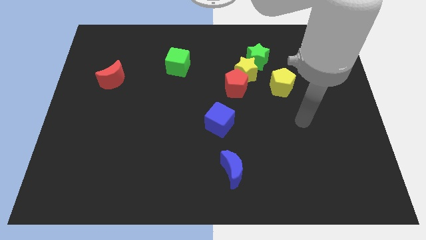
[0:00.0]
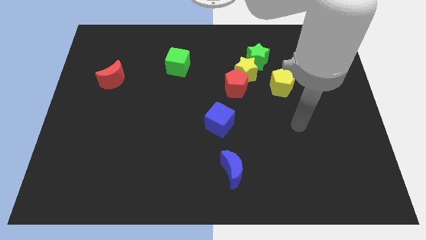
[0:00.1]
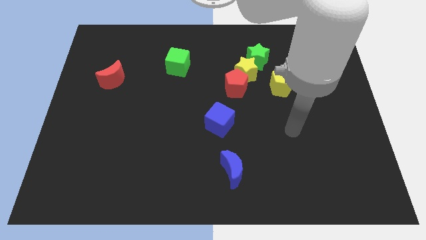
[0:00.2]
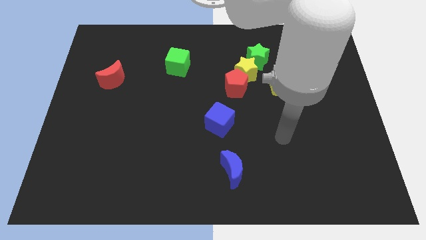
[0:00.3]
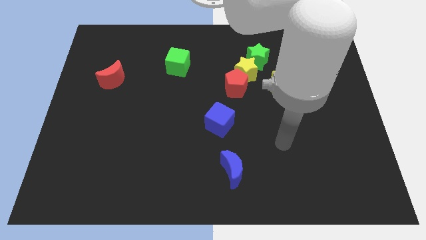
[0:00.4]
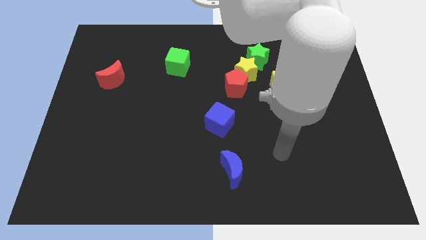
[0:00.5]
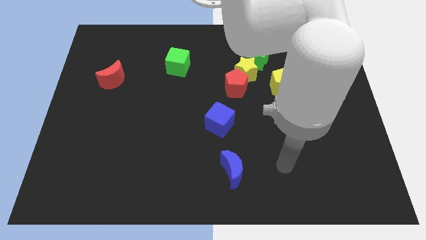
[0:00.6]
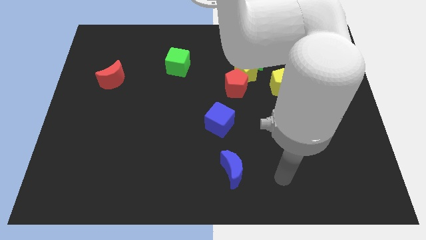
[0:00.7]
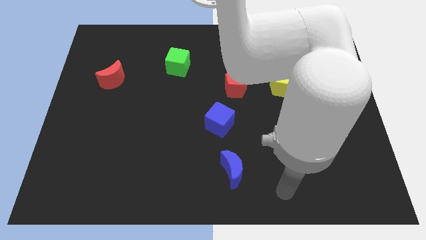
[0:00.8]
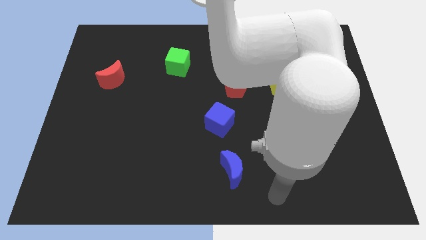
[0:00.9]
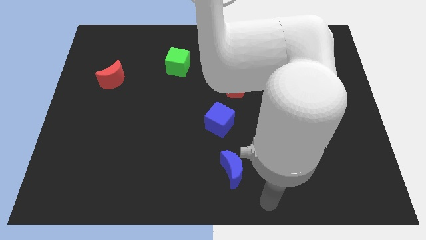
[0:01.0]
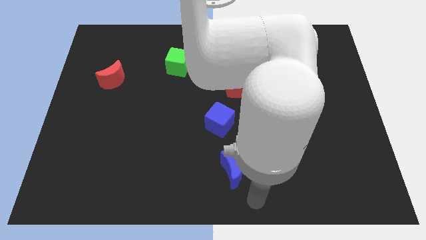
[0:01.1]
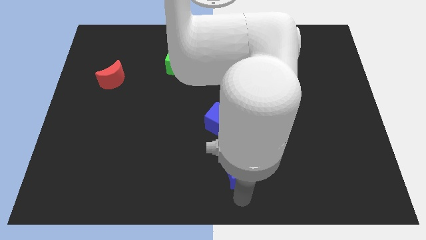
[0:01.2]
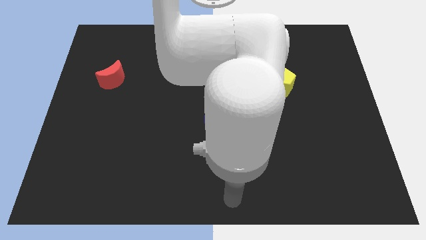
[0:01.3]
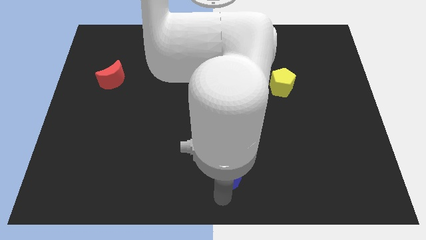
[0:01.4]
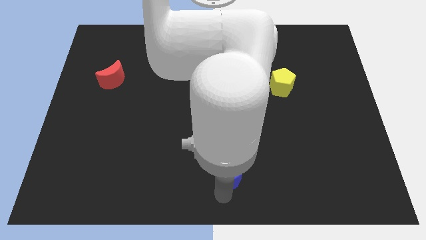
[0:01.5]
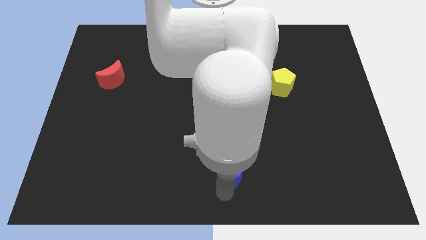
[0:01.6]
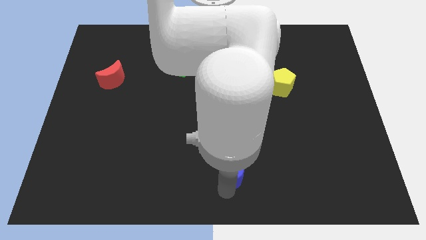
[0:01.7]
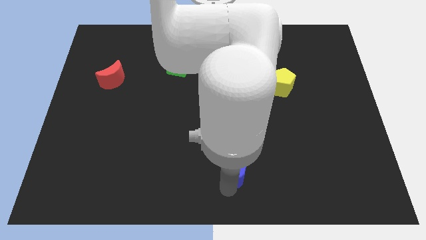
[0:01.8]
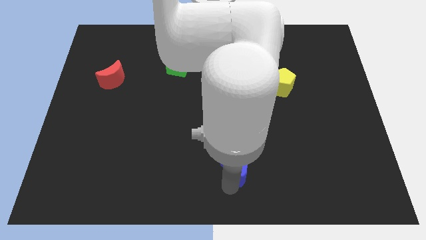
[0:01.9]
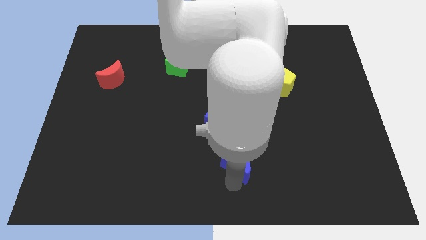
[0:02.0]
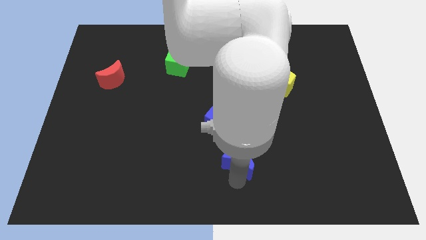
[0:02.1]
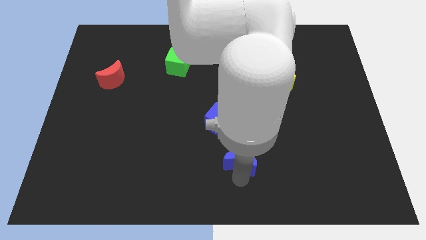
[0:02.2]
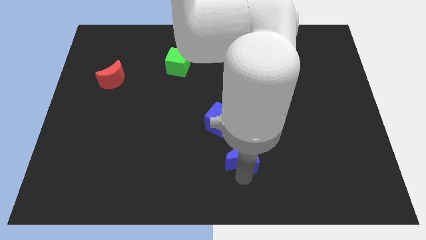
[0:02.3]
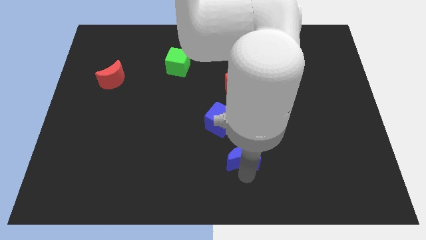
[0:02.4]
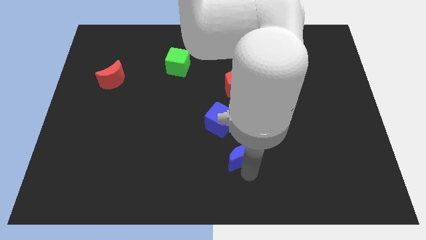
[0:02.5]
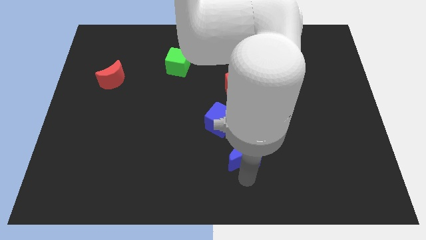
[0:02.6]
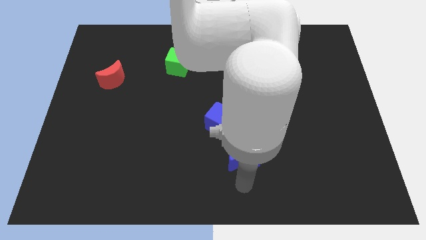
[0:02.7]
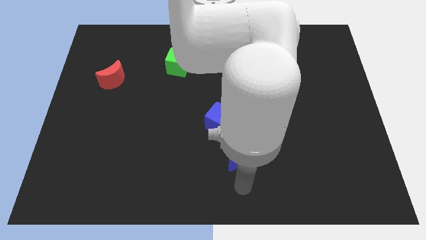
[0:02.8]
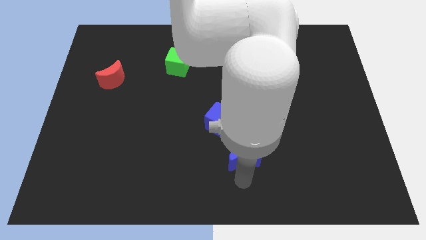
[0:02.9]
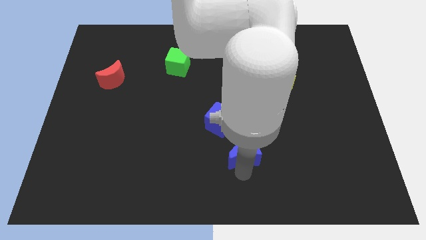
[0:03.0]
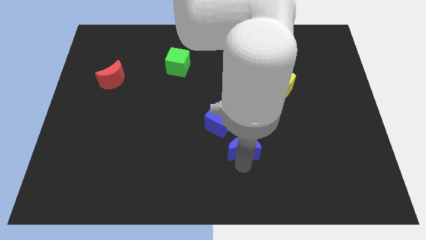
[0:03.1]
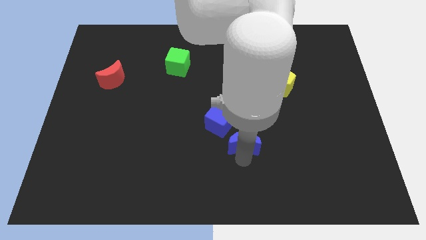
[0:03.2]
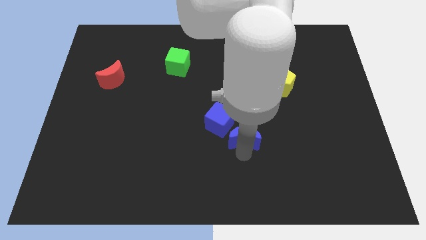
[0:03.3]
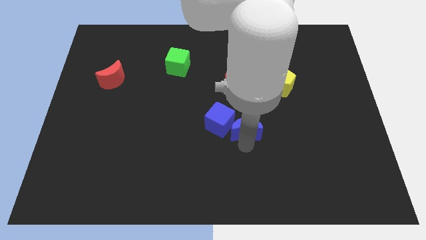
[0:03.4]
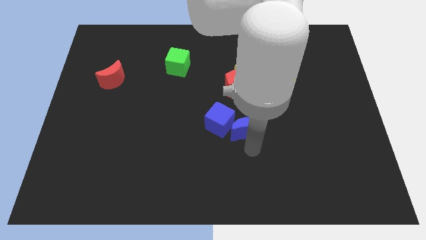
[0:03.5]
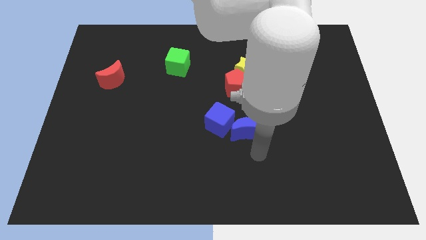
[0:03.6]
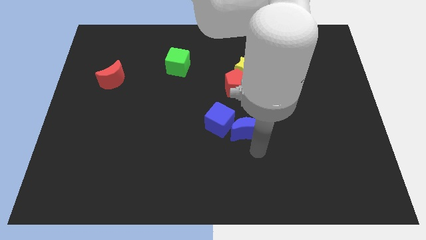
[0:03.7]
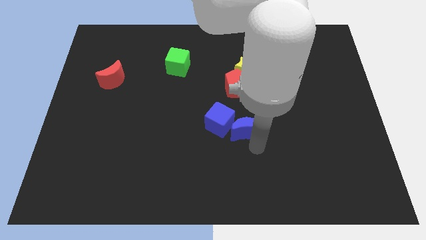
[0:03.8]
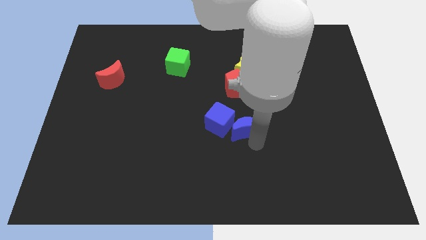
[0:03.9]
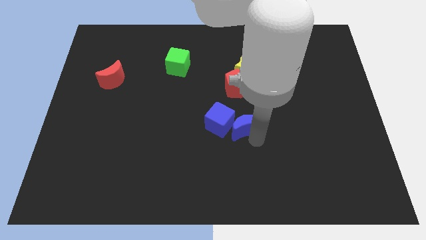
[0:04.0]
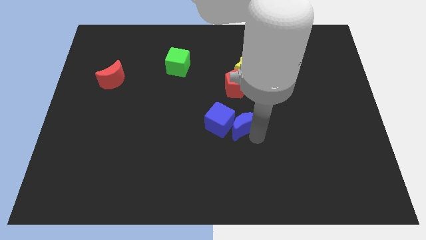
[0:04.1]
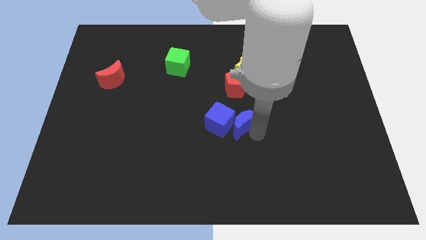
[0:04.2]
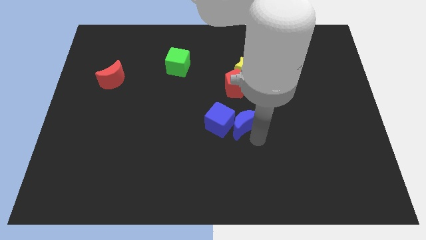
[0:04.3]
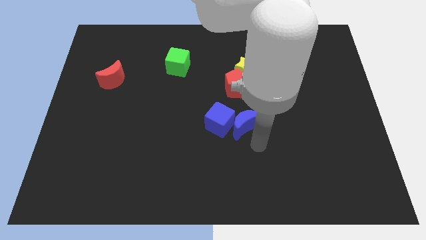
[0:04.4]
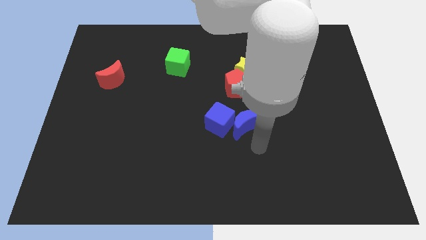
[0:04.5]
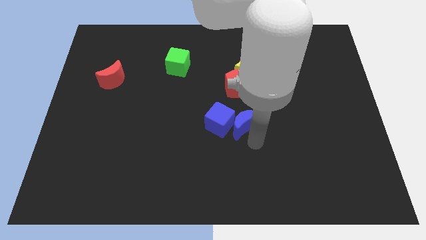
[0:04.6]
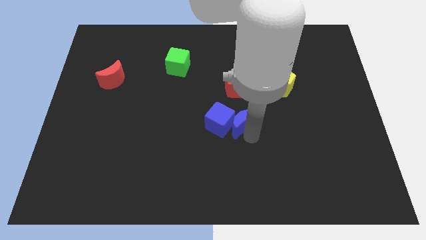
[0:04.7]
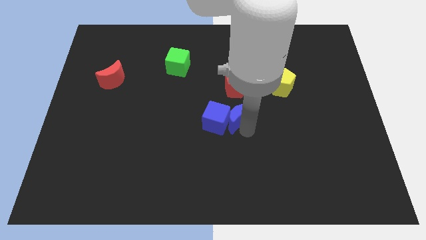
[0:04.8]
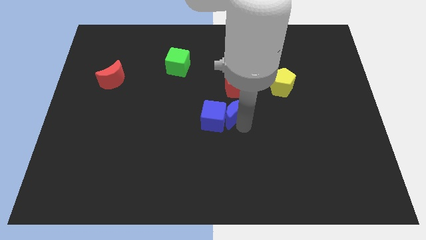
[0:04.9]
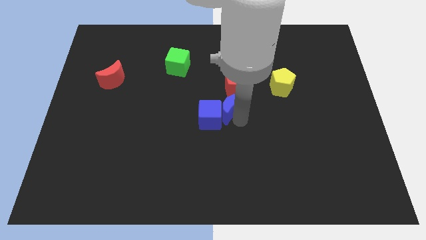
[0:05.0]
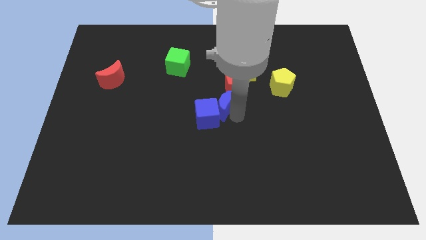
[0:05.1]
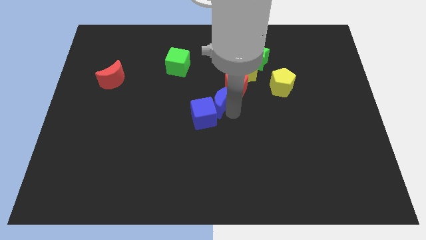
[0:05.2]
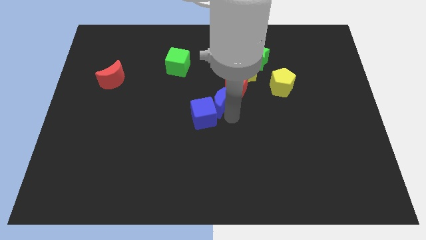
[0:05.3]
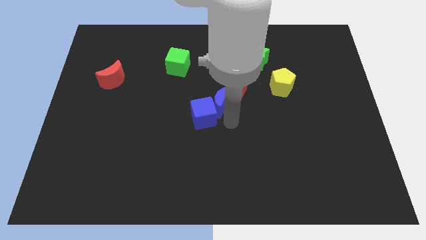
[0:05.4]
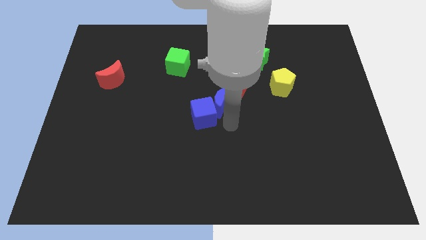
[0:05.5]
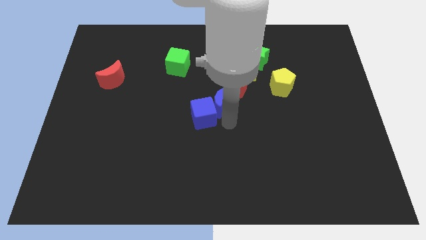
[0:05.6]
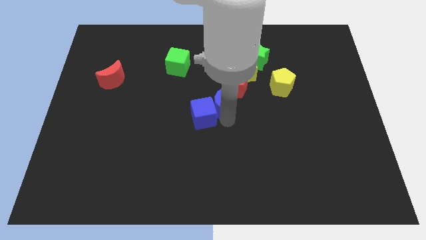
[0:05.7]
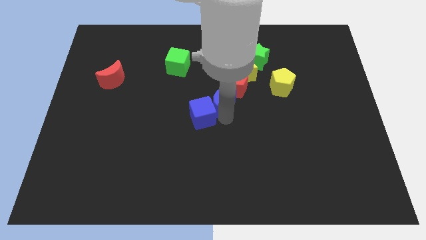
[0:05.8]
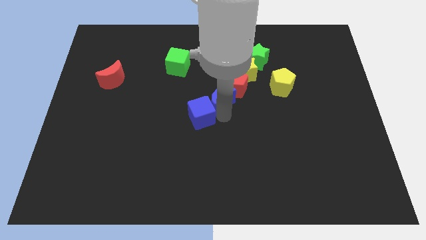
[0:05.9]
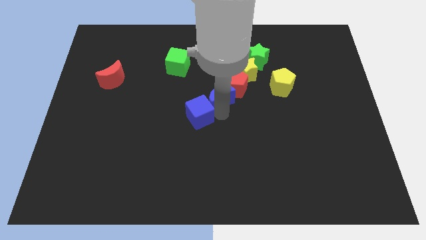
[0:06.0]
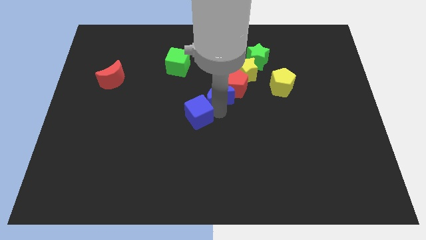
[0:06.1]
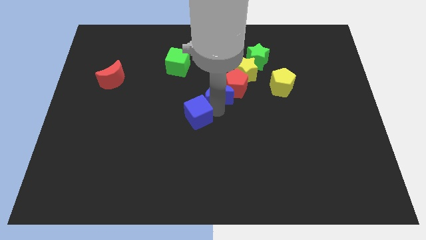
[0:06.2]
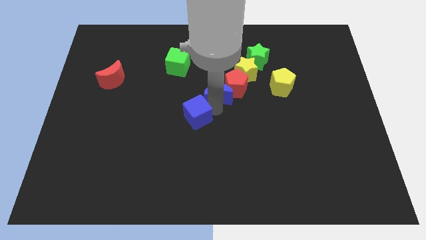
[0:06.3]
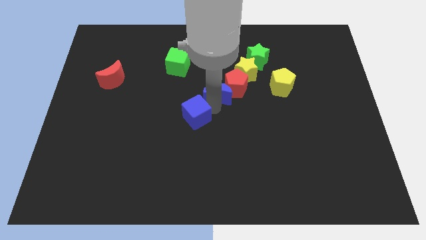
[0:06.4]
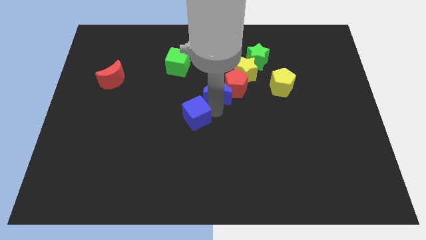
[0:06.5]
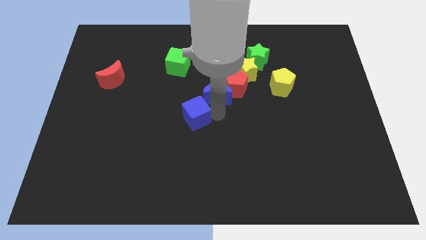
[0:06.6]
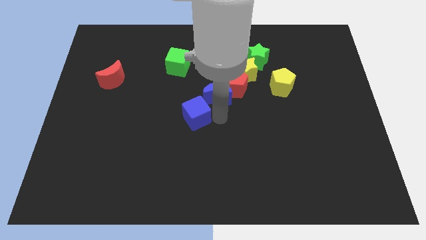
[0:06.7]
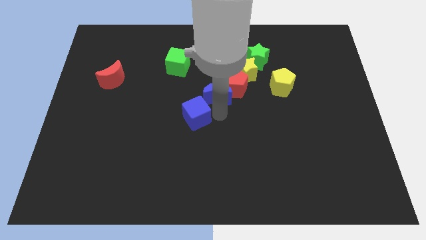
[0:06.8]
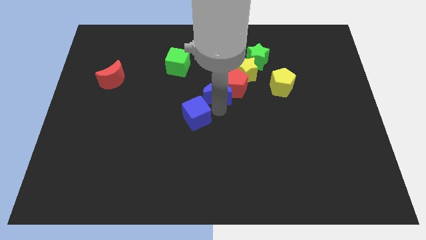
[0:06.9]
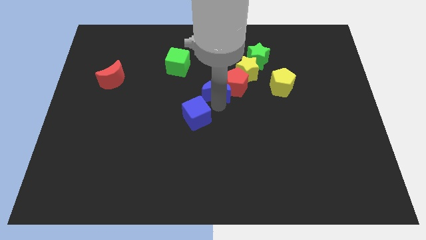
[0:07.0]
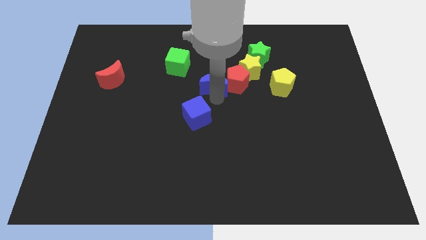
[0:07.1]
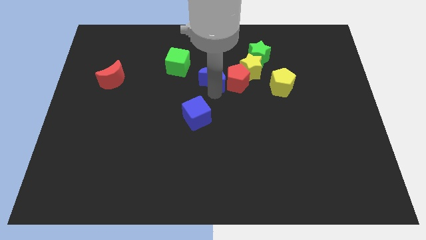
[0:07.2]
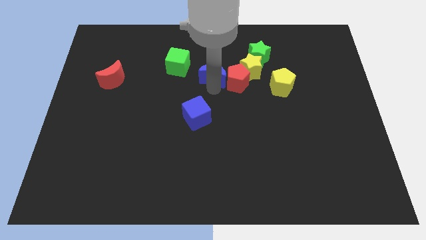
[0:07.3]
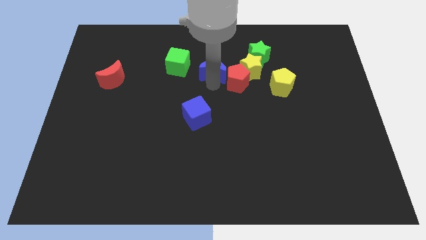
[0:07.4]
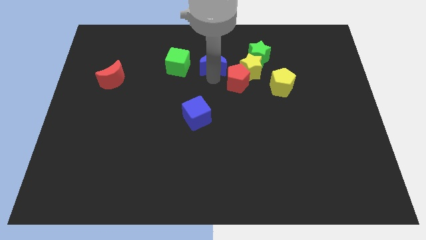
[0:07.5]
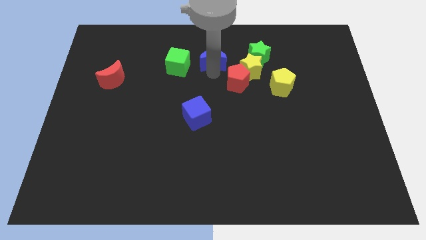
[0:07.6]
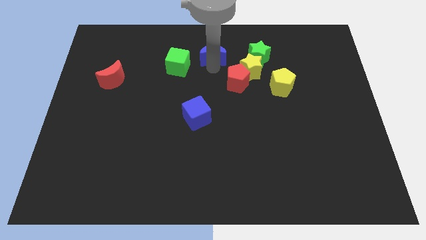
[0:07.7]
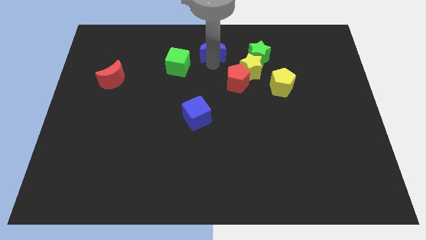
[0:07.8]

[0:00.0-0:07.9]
slide the blue moon to the top
